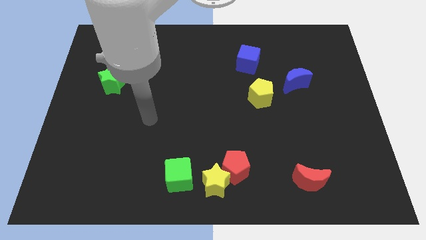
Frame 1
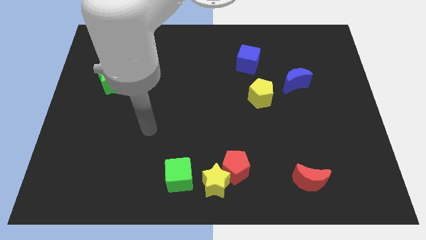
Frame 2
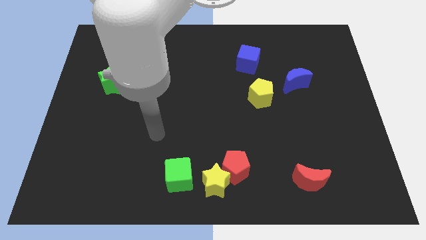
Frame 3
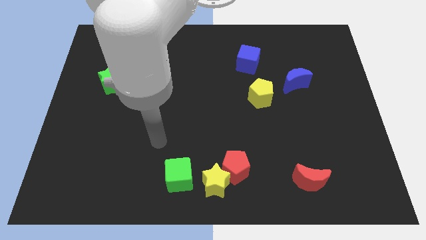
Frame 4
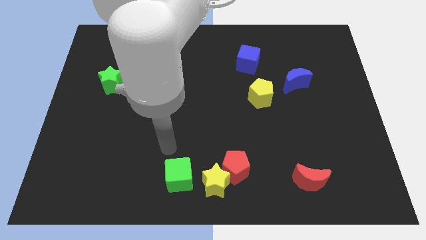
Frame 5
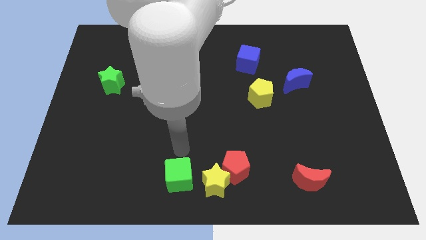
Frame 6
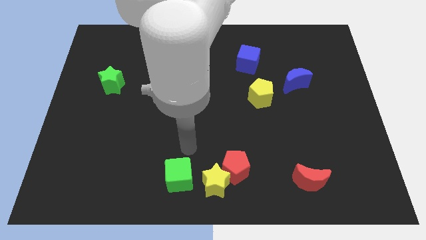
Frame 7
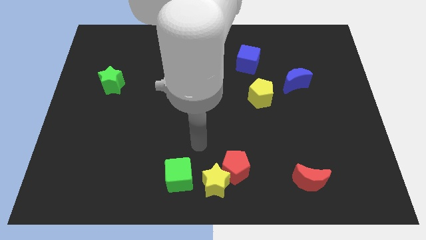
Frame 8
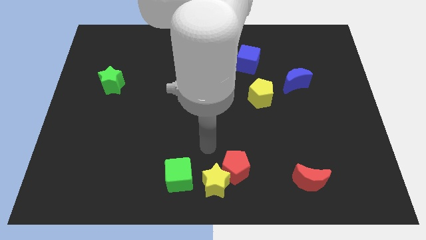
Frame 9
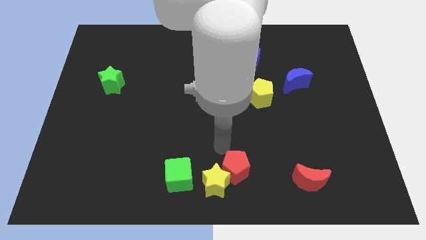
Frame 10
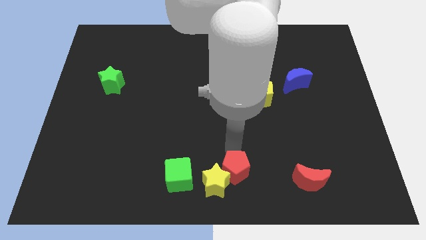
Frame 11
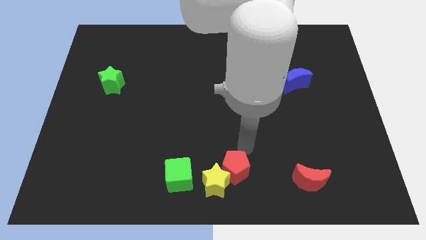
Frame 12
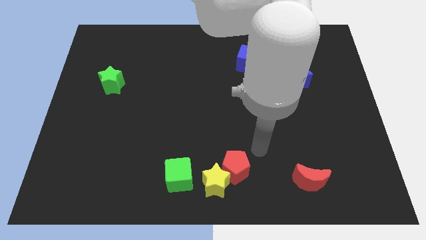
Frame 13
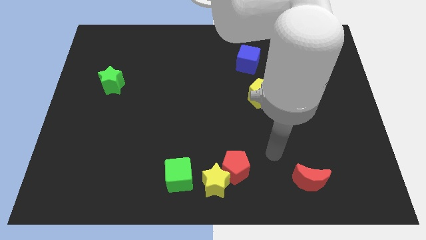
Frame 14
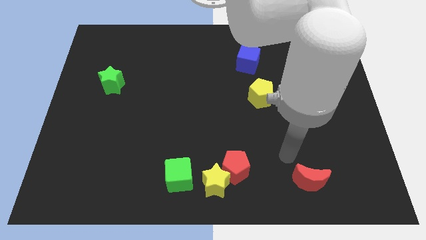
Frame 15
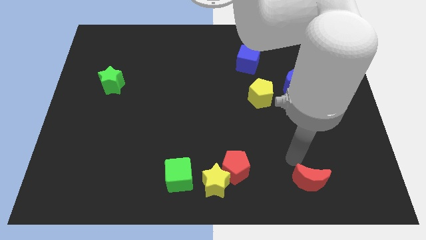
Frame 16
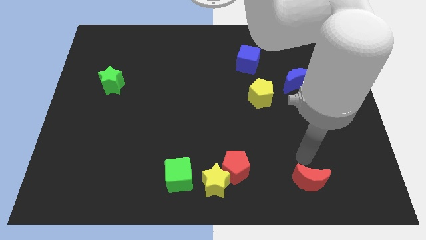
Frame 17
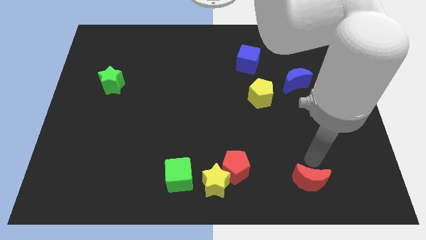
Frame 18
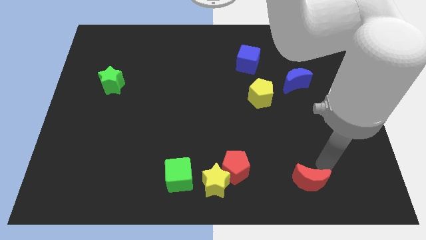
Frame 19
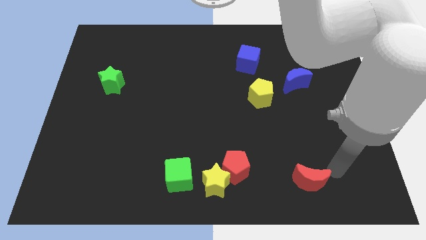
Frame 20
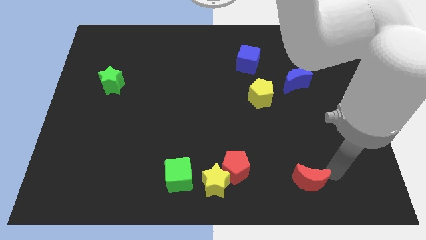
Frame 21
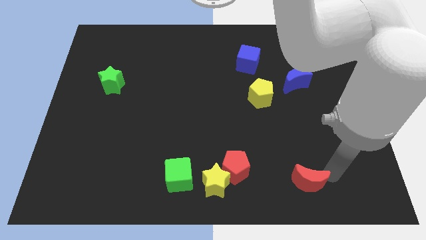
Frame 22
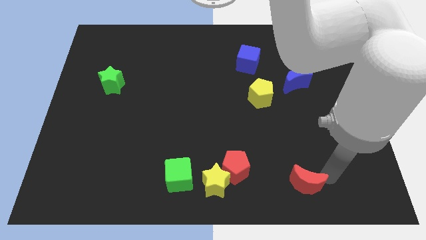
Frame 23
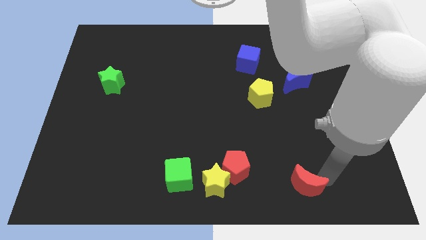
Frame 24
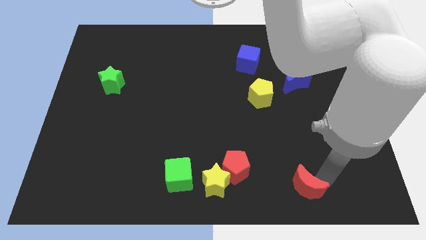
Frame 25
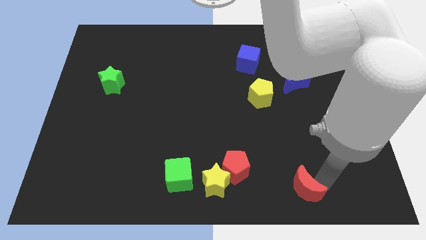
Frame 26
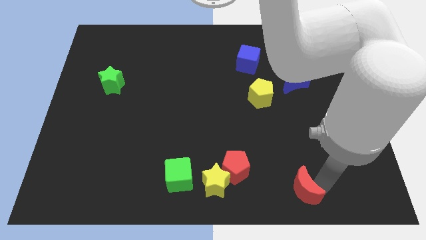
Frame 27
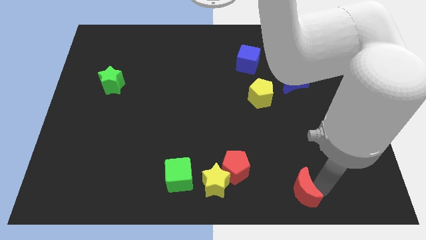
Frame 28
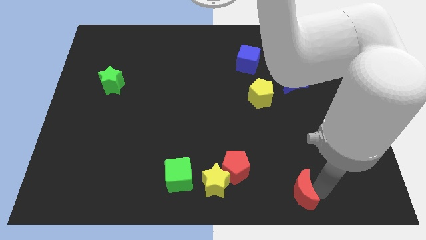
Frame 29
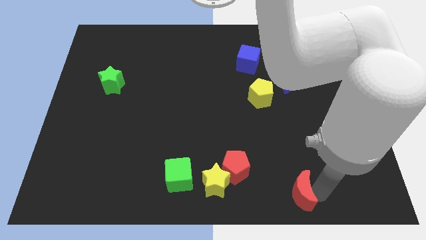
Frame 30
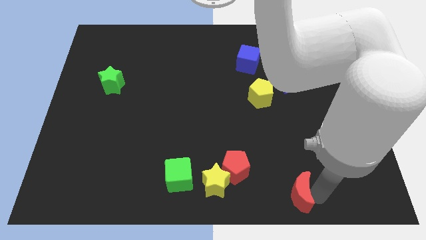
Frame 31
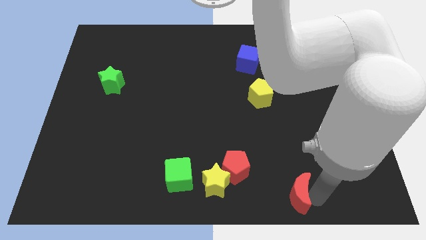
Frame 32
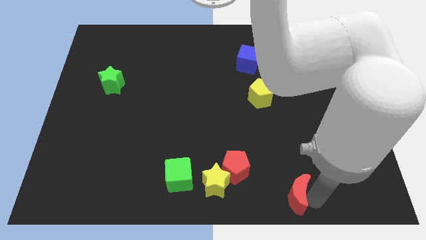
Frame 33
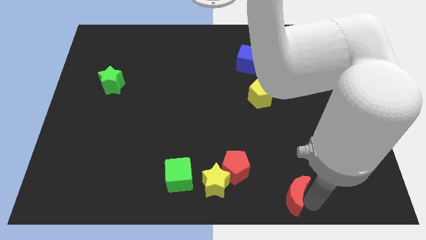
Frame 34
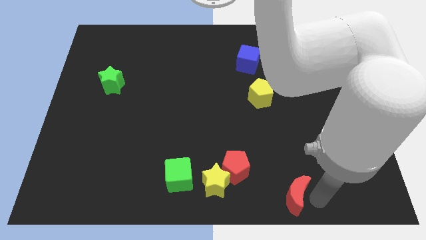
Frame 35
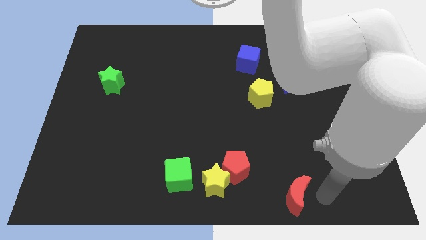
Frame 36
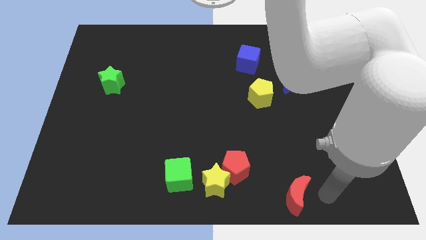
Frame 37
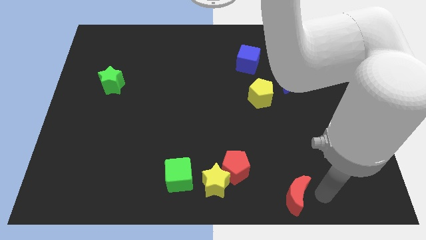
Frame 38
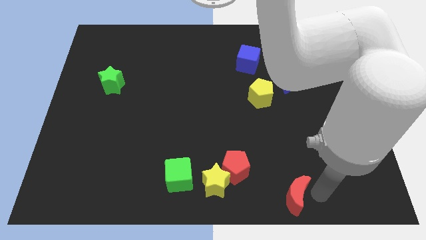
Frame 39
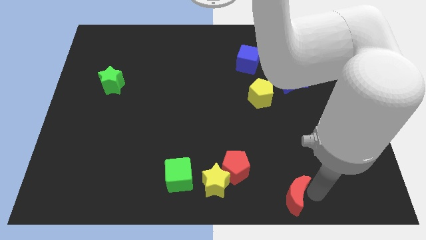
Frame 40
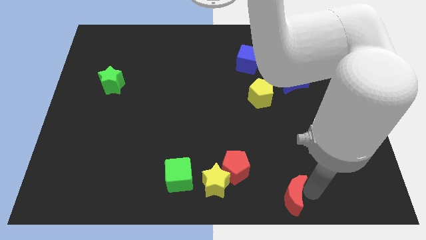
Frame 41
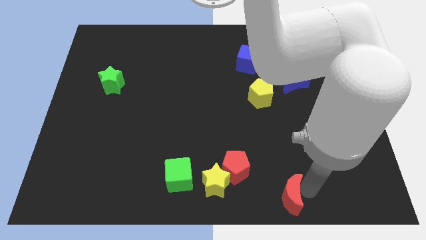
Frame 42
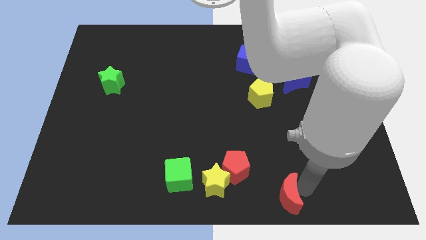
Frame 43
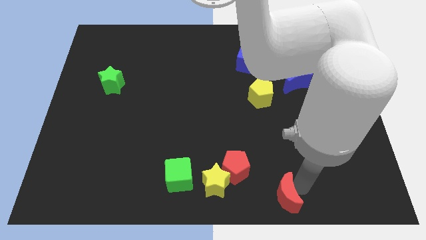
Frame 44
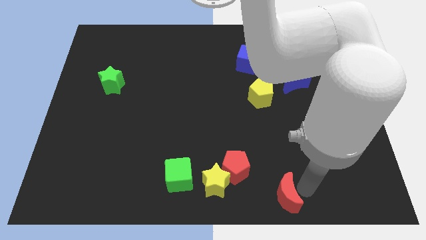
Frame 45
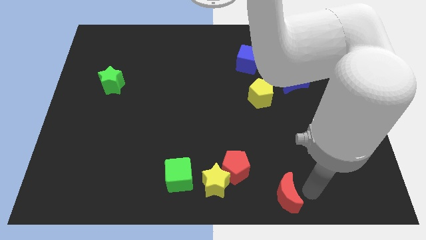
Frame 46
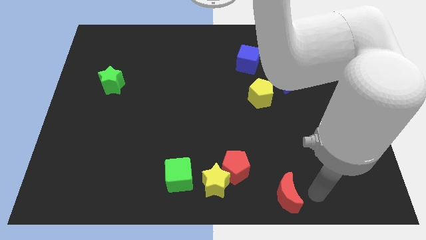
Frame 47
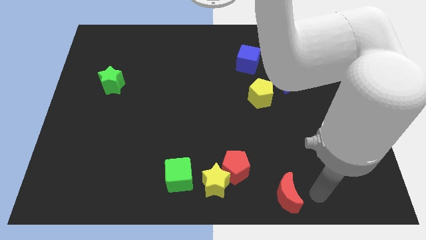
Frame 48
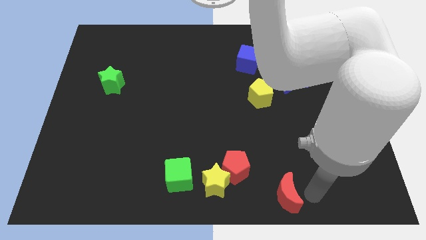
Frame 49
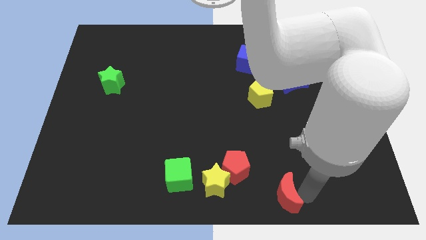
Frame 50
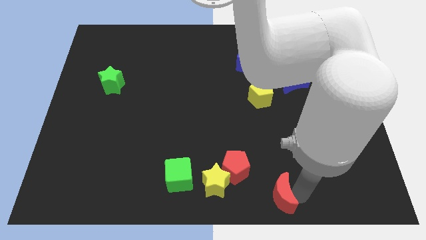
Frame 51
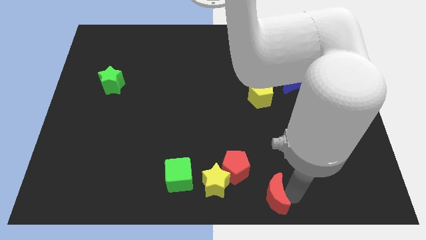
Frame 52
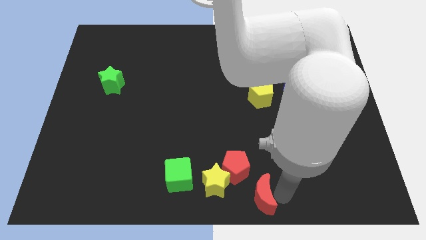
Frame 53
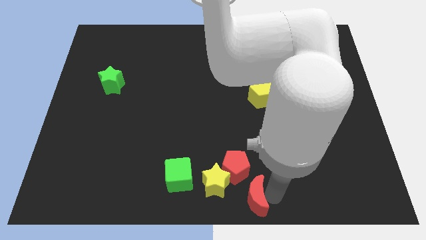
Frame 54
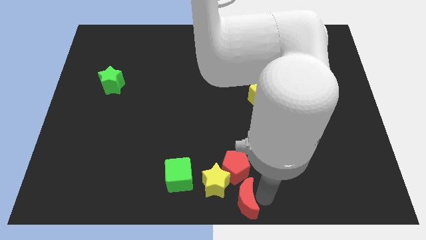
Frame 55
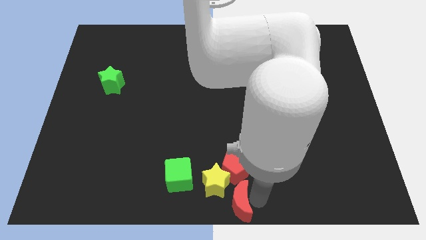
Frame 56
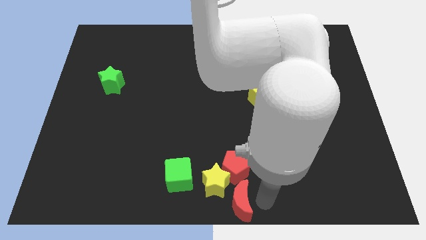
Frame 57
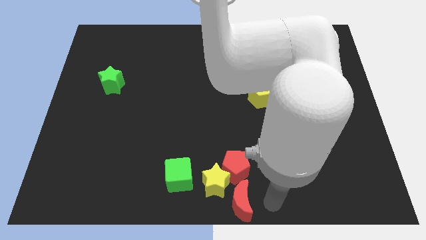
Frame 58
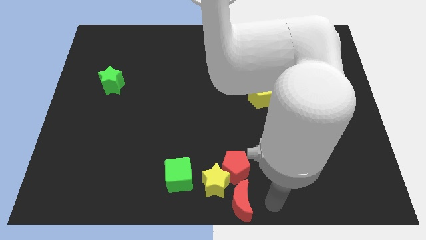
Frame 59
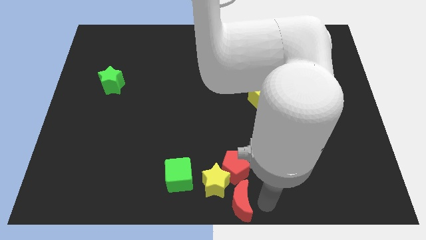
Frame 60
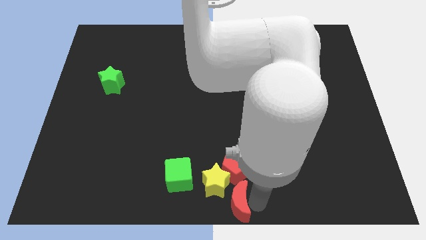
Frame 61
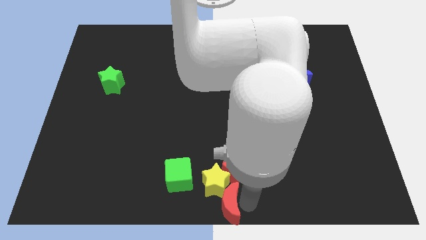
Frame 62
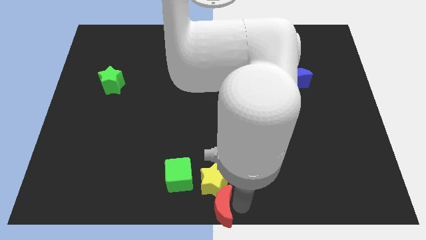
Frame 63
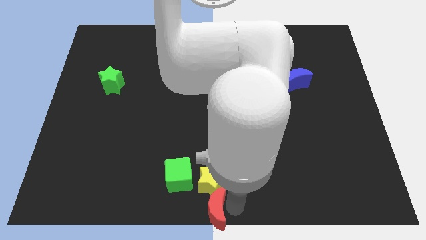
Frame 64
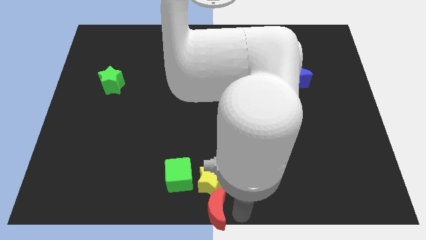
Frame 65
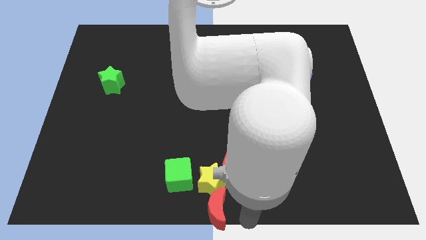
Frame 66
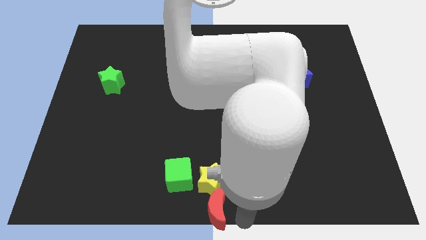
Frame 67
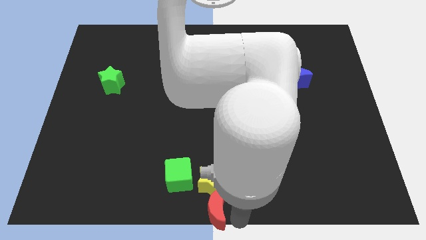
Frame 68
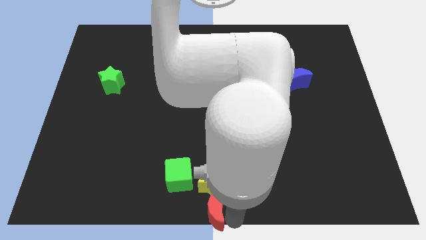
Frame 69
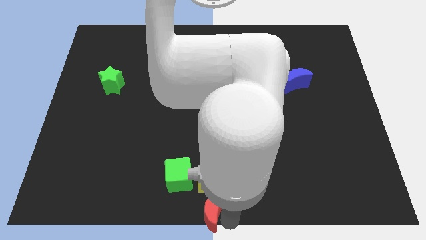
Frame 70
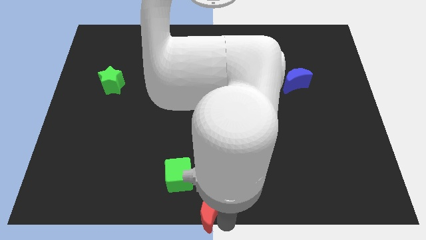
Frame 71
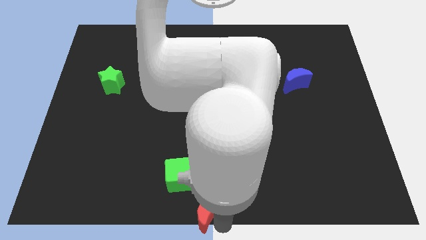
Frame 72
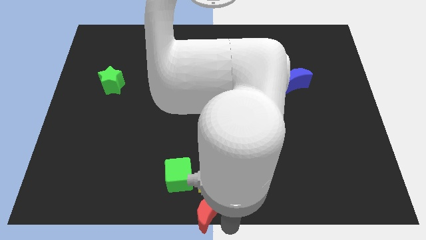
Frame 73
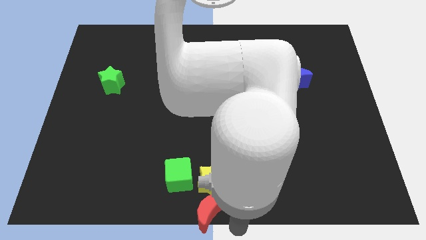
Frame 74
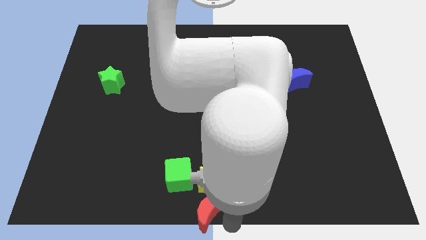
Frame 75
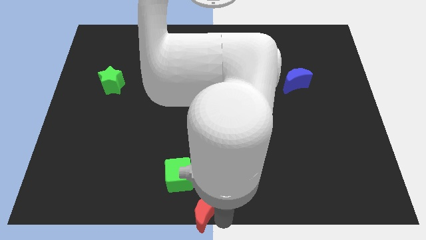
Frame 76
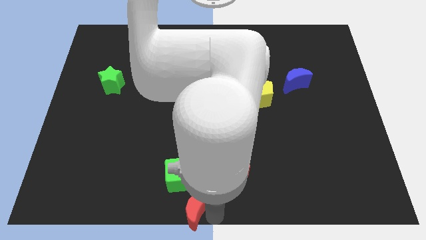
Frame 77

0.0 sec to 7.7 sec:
move the red moon to the left

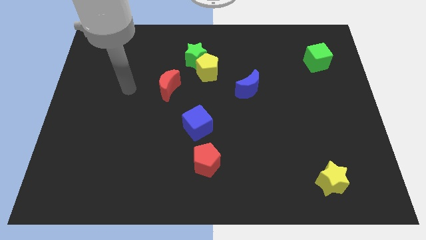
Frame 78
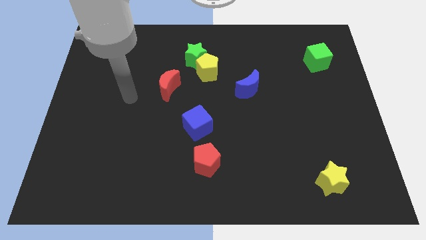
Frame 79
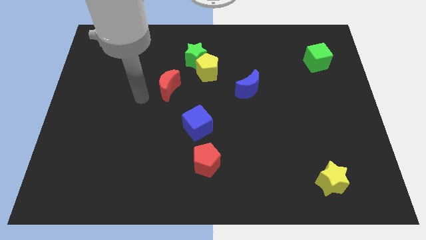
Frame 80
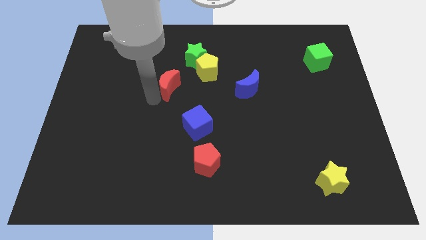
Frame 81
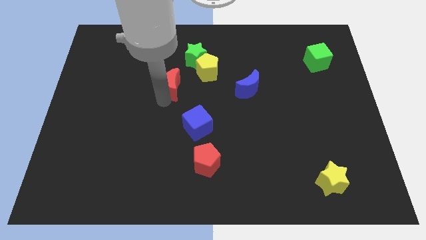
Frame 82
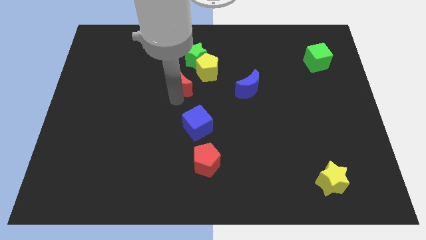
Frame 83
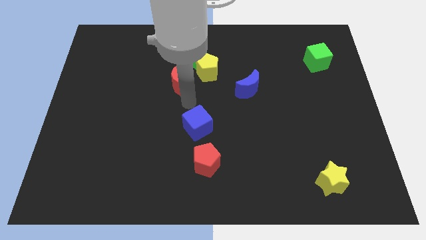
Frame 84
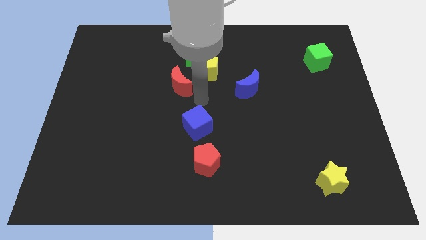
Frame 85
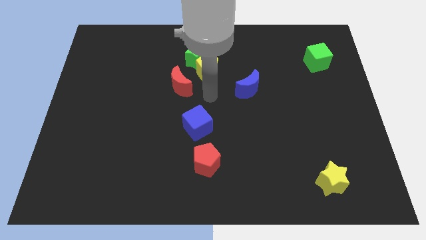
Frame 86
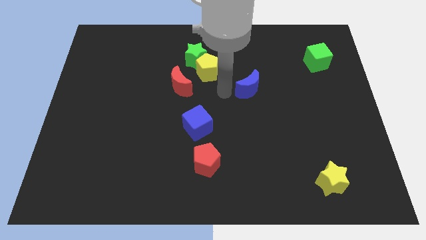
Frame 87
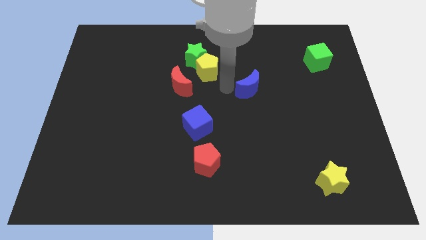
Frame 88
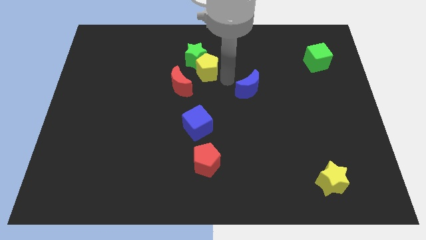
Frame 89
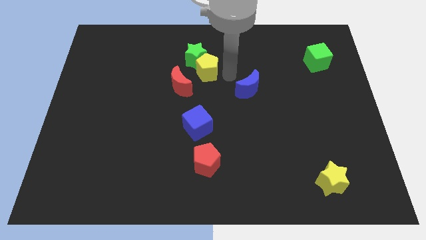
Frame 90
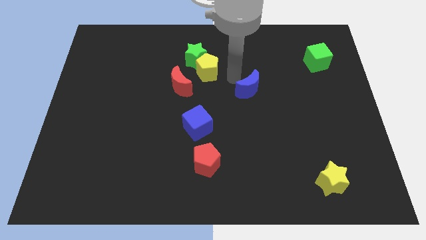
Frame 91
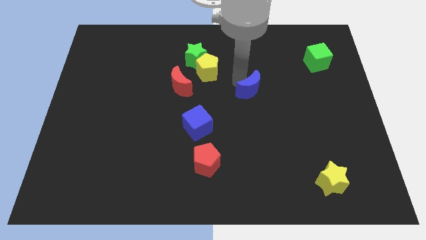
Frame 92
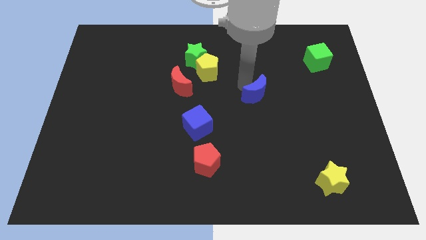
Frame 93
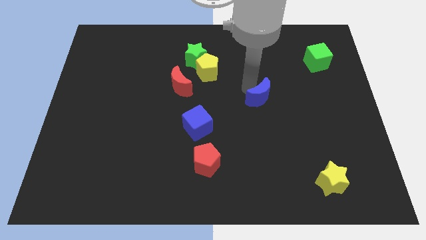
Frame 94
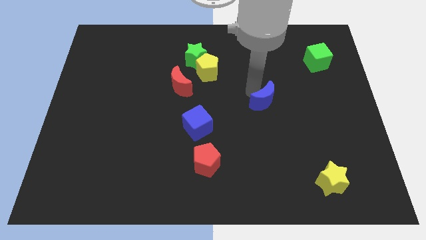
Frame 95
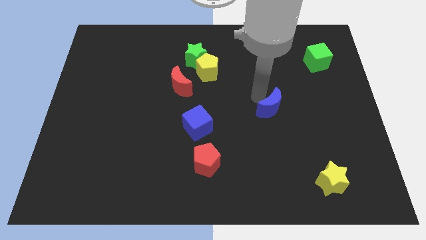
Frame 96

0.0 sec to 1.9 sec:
push the blue moon downwards and right diagonally a little bit
